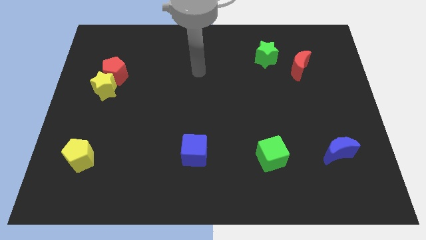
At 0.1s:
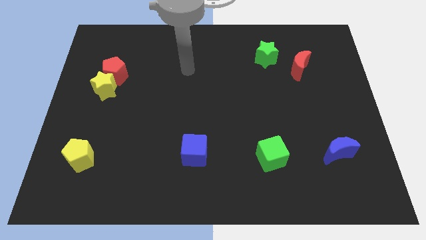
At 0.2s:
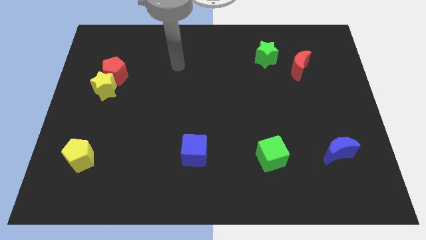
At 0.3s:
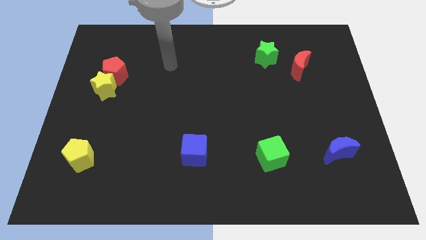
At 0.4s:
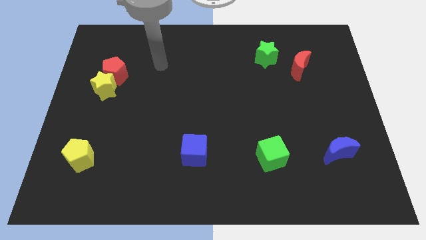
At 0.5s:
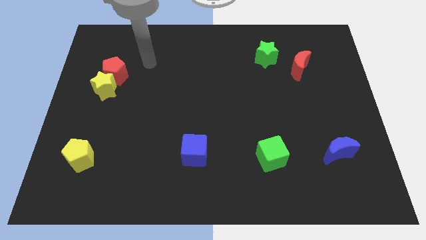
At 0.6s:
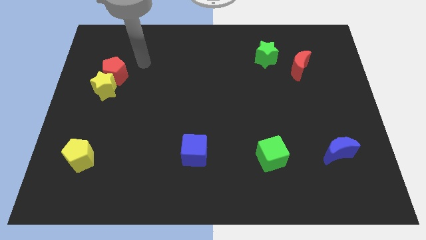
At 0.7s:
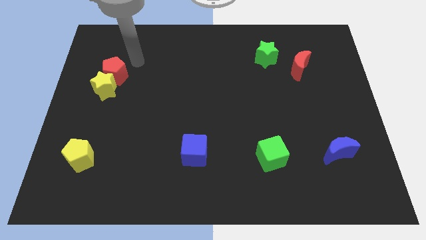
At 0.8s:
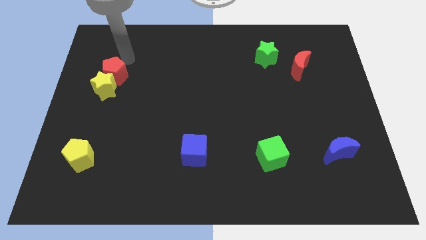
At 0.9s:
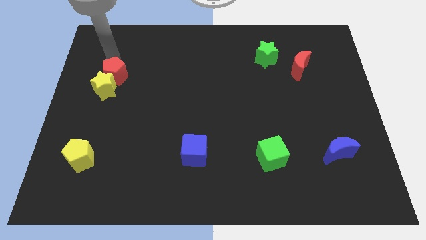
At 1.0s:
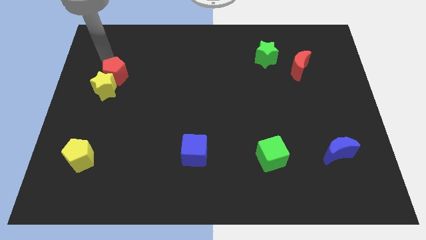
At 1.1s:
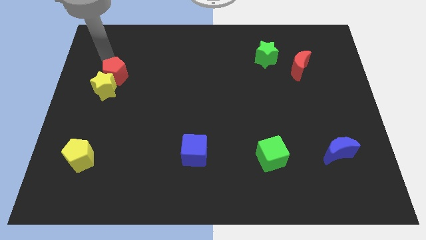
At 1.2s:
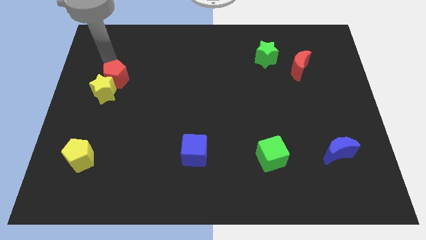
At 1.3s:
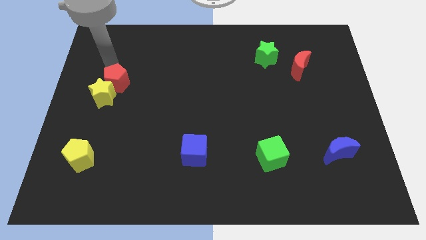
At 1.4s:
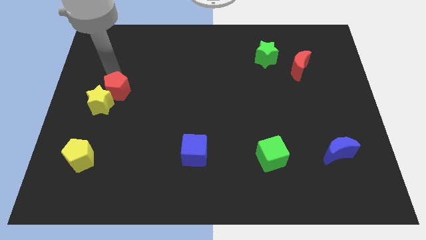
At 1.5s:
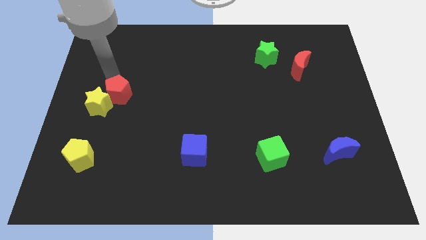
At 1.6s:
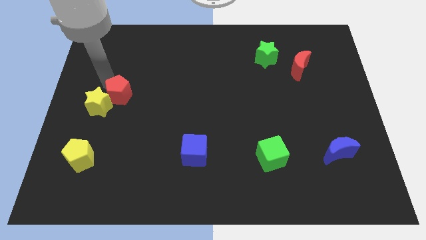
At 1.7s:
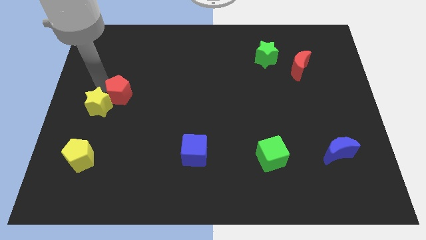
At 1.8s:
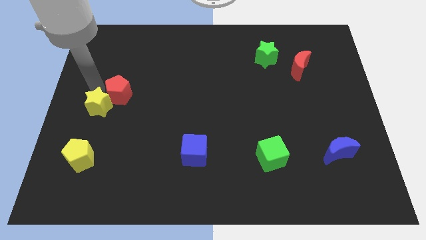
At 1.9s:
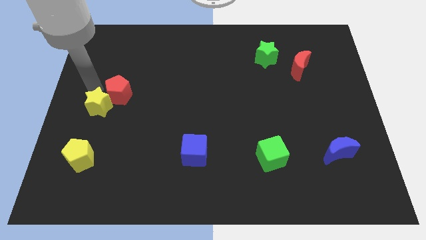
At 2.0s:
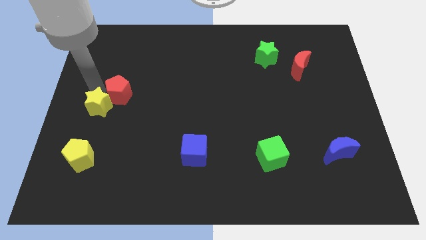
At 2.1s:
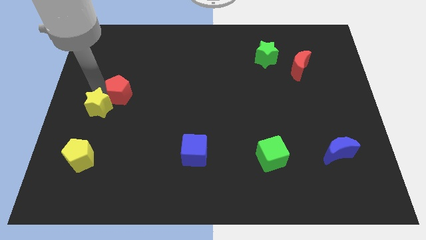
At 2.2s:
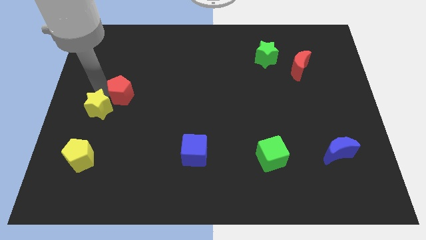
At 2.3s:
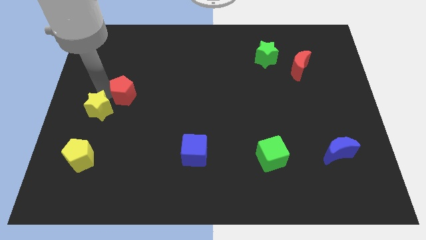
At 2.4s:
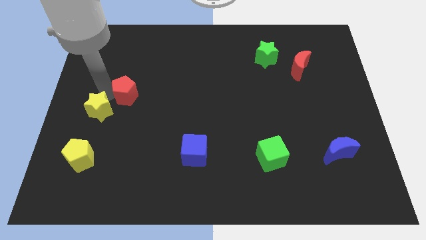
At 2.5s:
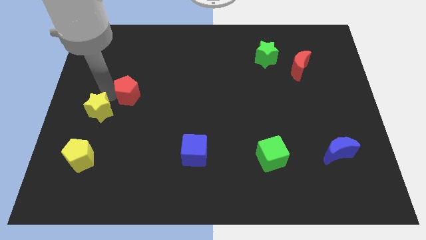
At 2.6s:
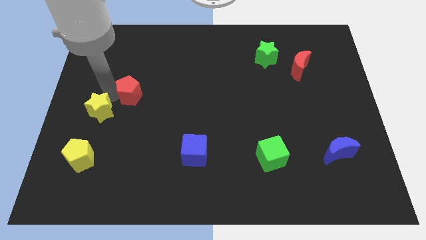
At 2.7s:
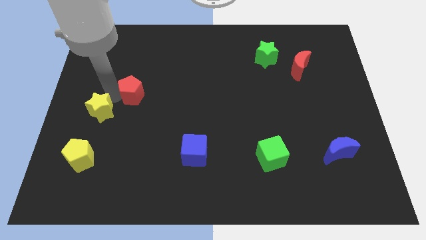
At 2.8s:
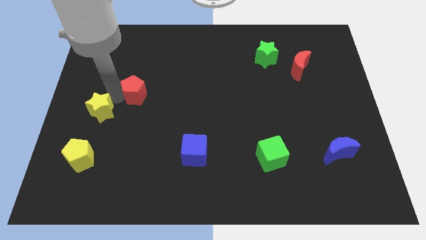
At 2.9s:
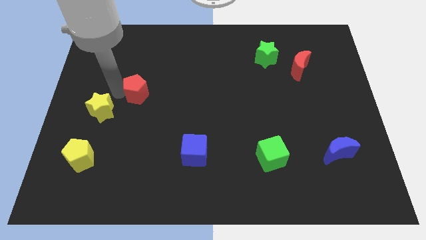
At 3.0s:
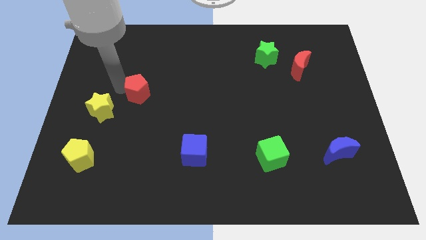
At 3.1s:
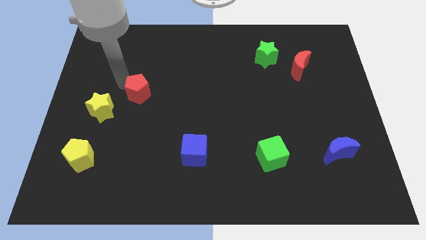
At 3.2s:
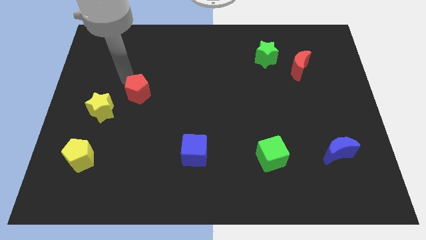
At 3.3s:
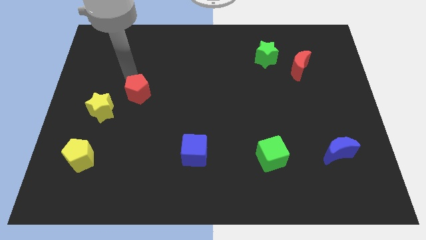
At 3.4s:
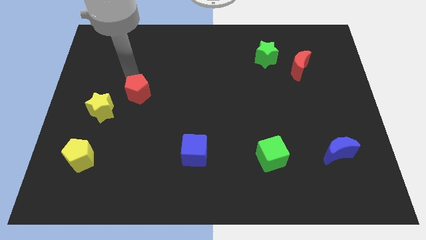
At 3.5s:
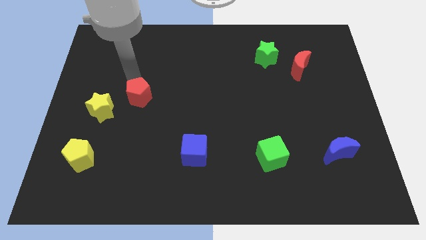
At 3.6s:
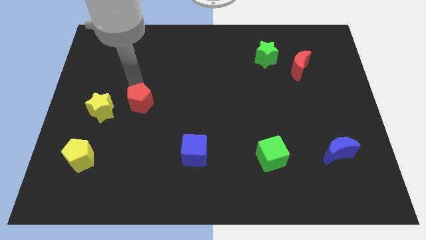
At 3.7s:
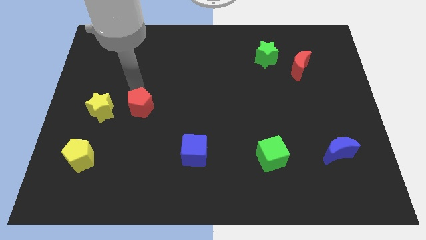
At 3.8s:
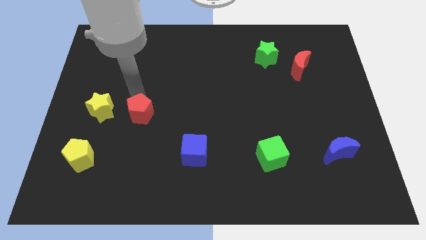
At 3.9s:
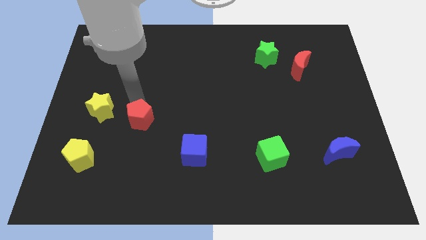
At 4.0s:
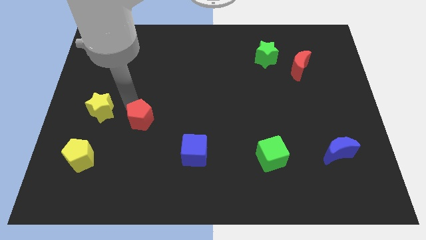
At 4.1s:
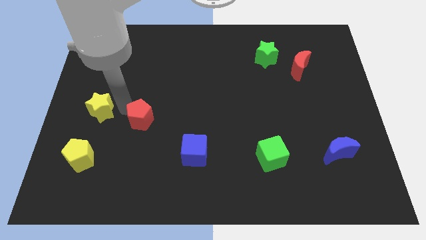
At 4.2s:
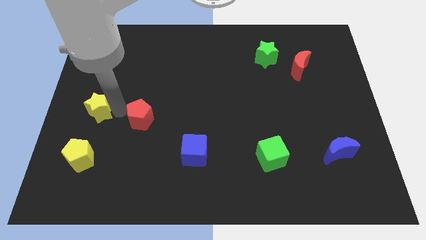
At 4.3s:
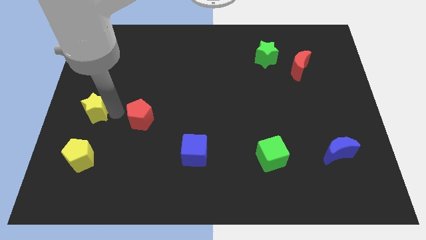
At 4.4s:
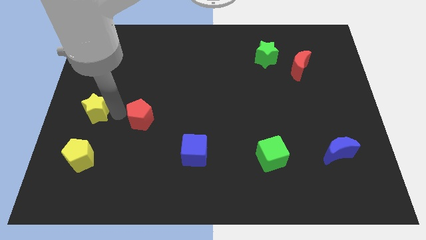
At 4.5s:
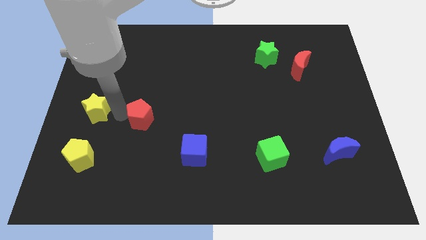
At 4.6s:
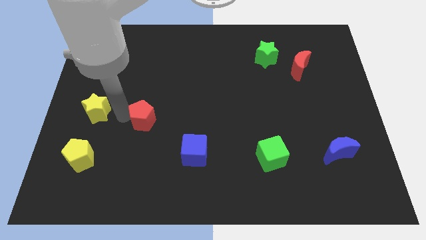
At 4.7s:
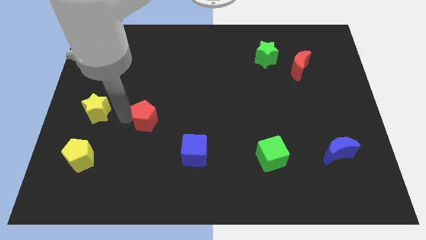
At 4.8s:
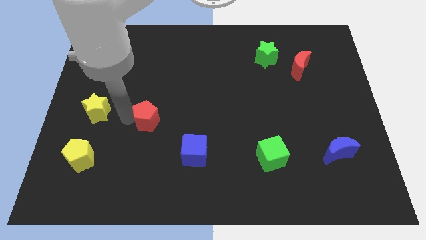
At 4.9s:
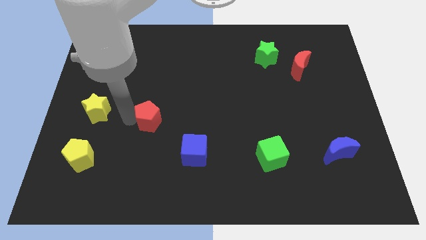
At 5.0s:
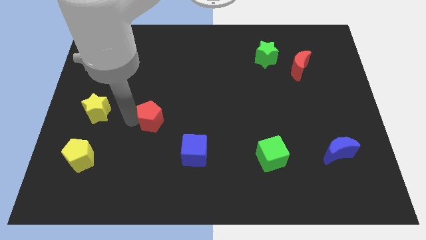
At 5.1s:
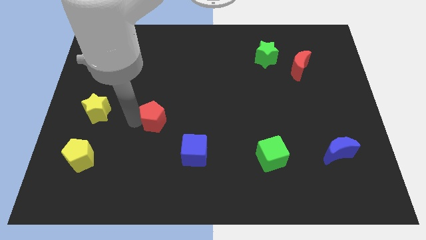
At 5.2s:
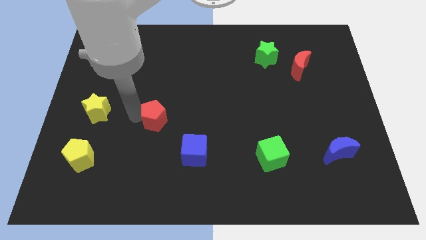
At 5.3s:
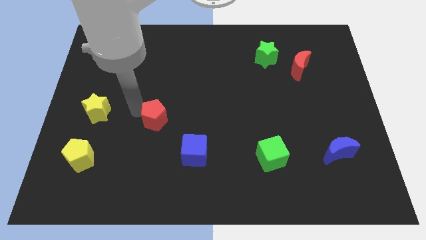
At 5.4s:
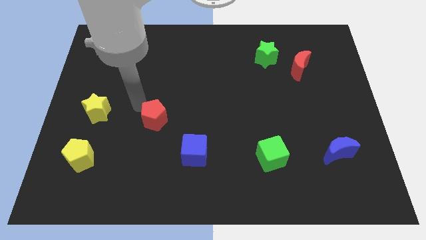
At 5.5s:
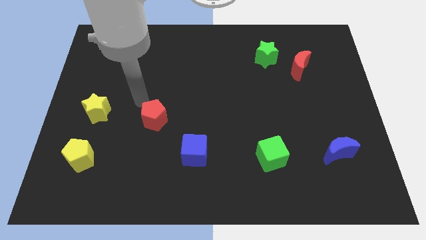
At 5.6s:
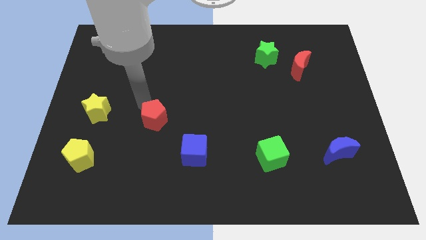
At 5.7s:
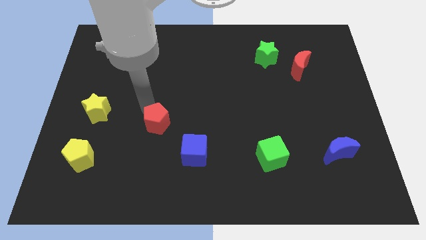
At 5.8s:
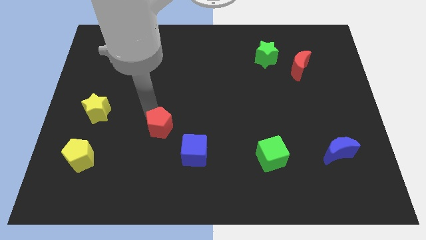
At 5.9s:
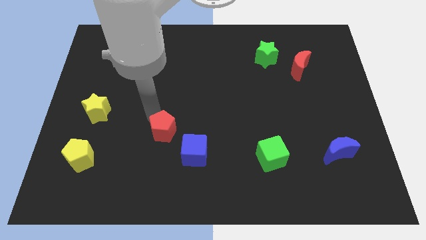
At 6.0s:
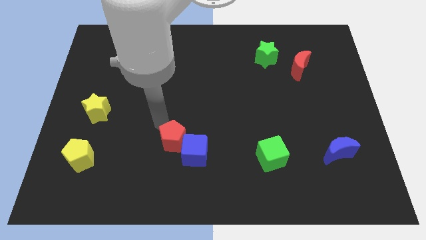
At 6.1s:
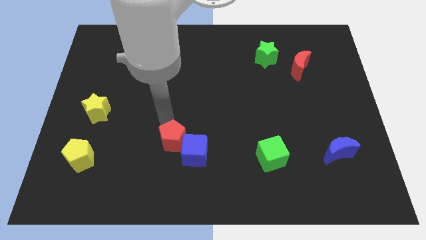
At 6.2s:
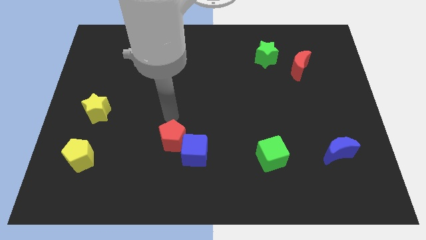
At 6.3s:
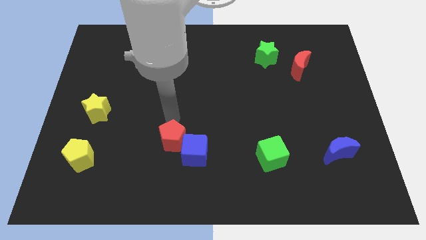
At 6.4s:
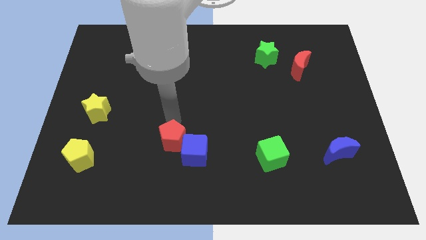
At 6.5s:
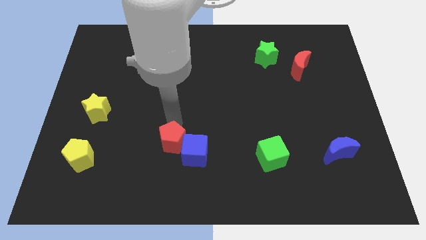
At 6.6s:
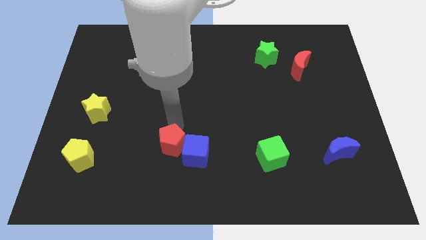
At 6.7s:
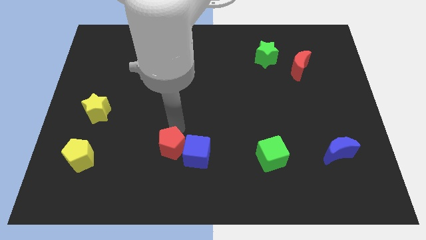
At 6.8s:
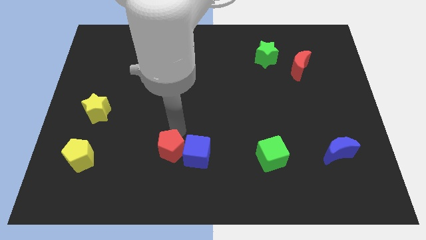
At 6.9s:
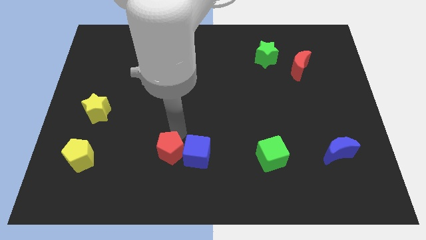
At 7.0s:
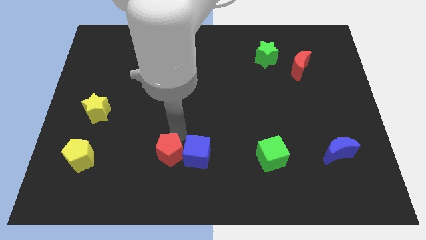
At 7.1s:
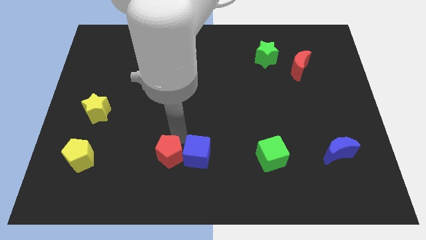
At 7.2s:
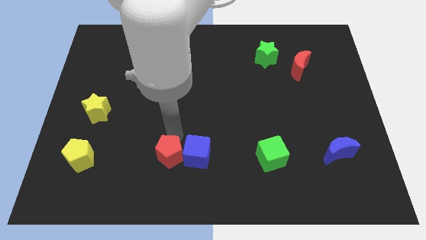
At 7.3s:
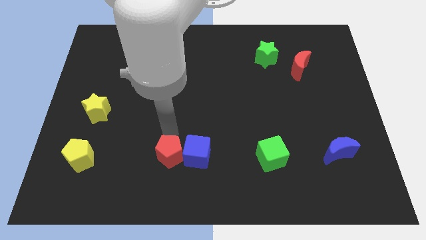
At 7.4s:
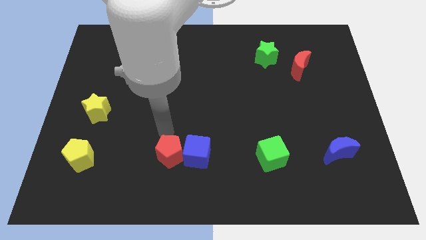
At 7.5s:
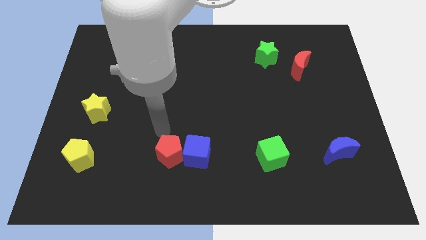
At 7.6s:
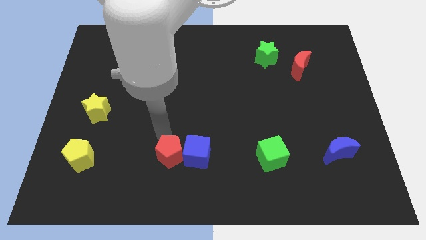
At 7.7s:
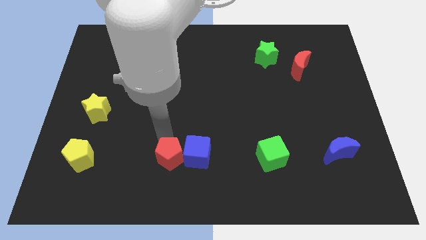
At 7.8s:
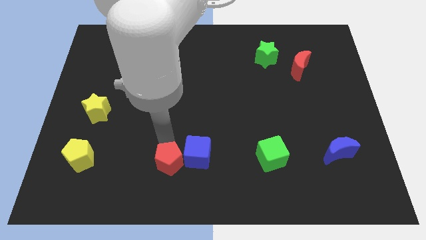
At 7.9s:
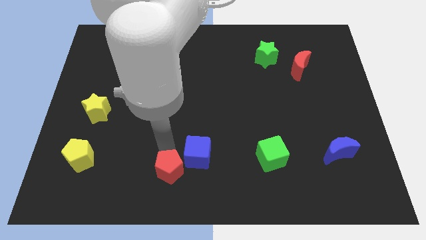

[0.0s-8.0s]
put the red pentagon to the bottom side
